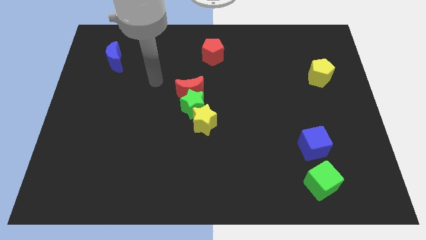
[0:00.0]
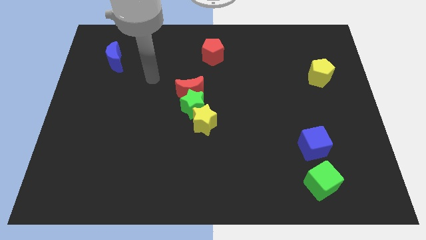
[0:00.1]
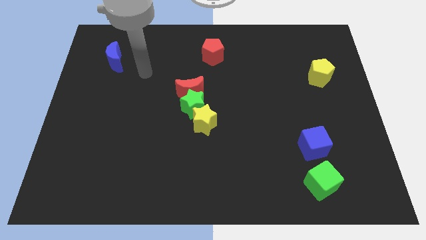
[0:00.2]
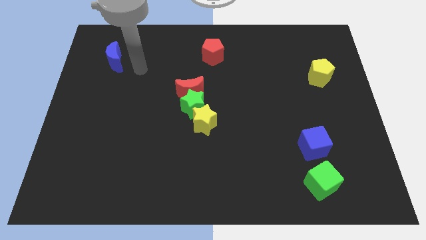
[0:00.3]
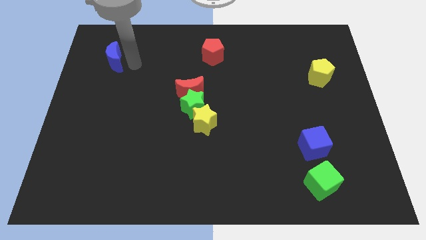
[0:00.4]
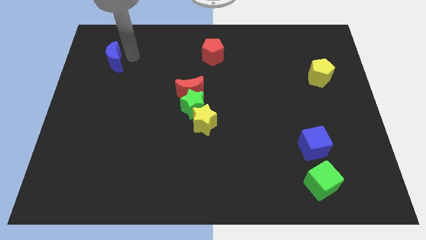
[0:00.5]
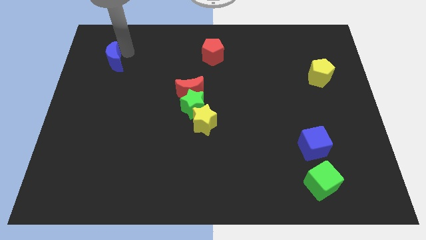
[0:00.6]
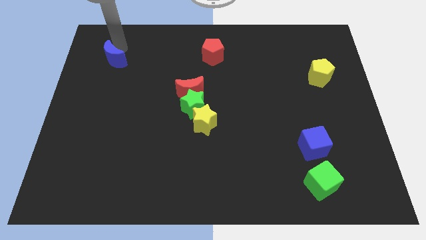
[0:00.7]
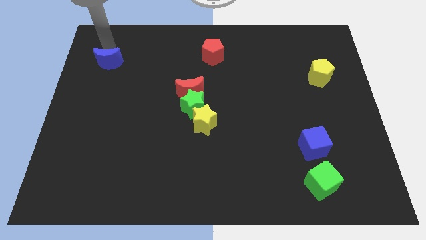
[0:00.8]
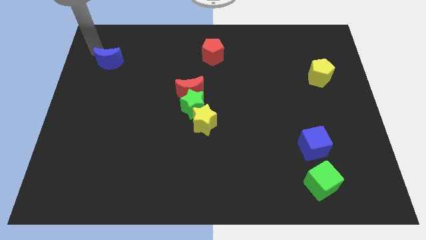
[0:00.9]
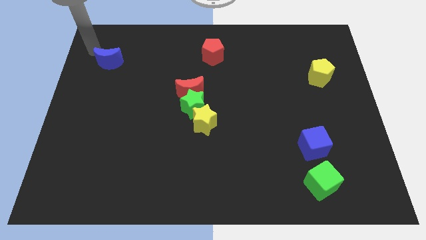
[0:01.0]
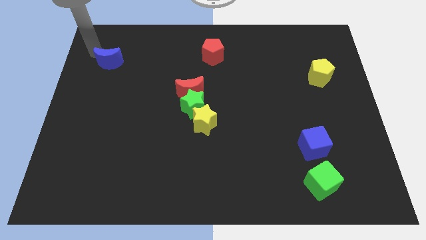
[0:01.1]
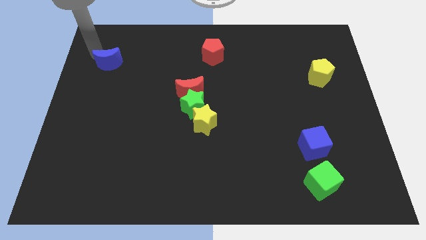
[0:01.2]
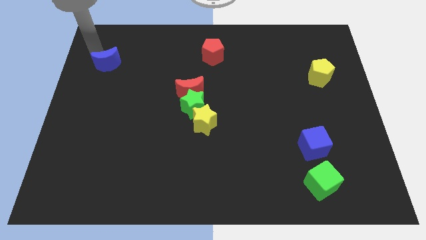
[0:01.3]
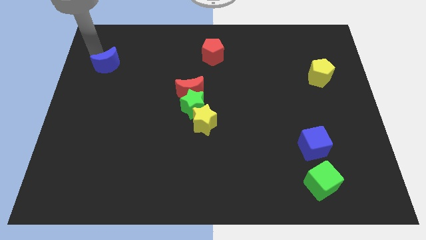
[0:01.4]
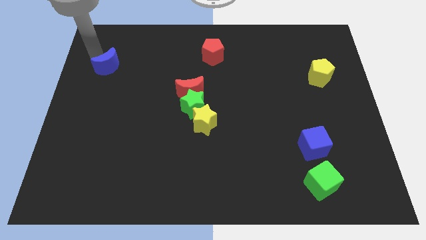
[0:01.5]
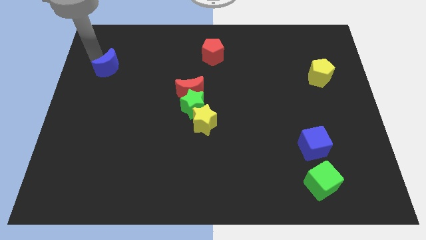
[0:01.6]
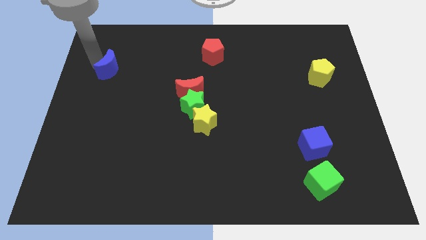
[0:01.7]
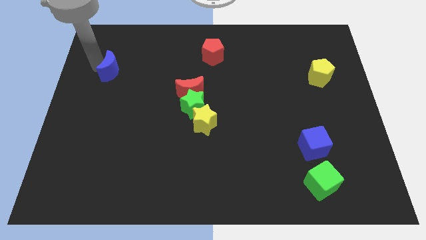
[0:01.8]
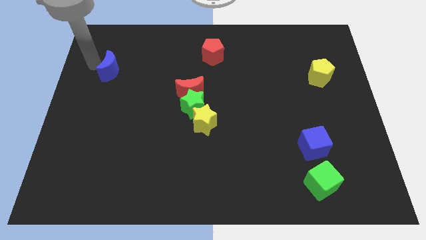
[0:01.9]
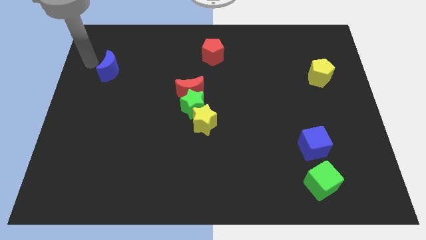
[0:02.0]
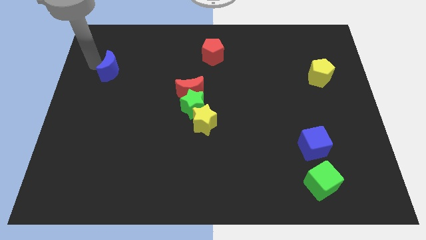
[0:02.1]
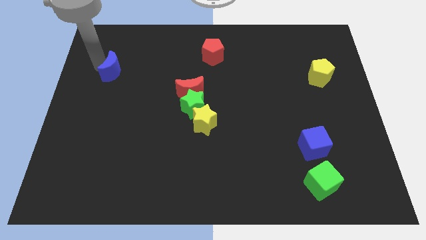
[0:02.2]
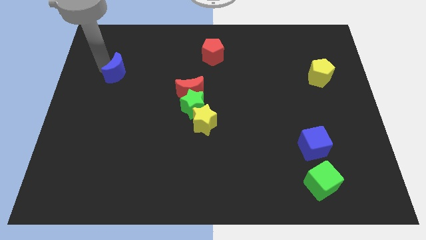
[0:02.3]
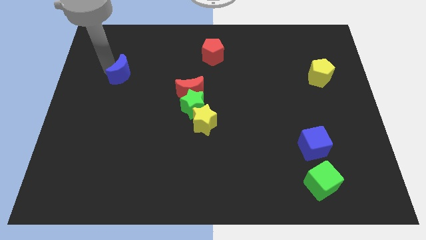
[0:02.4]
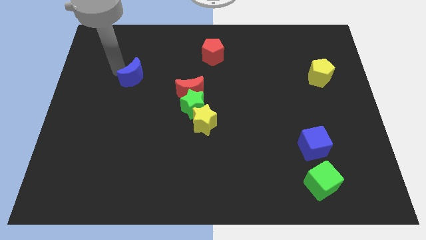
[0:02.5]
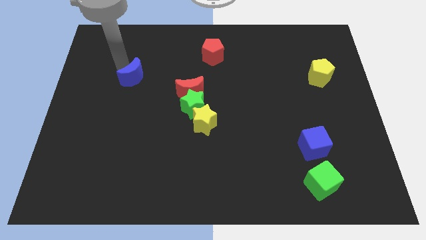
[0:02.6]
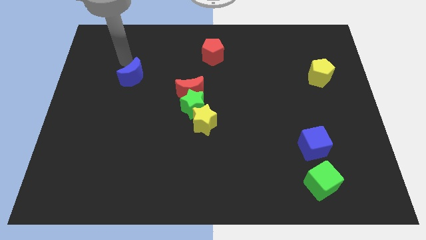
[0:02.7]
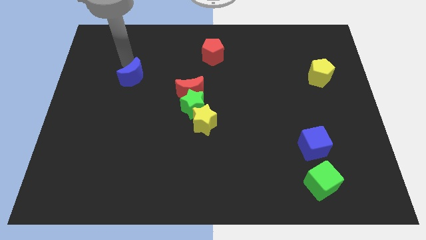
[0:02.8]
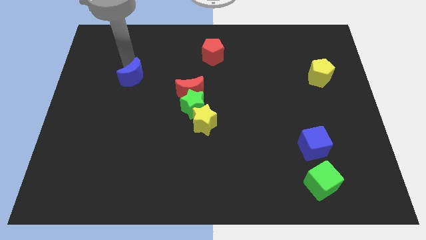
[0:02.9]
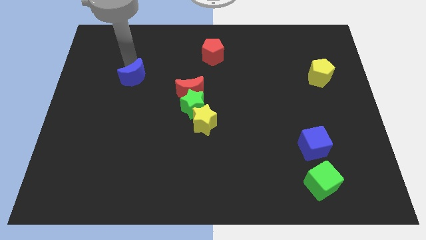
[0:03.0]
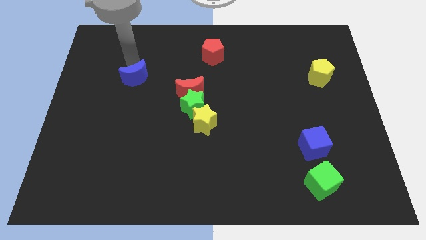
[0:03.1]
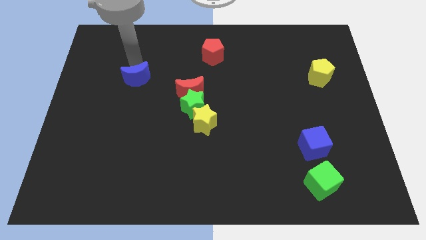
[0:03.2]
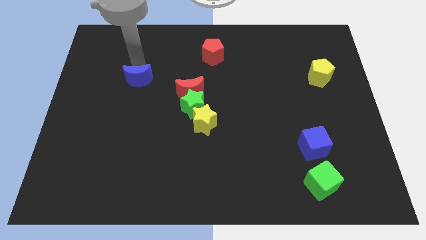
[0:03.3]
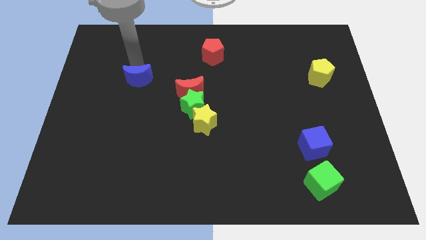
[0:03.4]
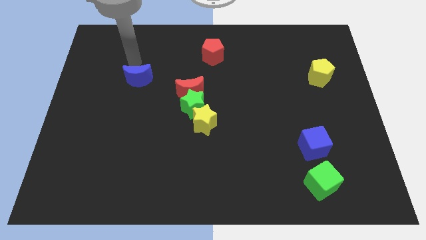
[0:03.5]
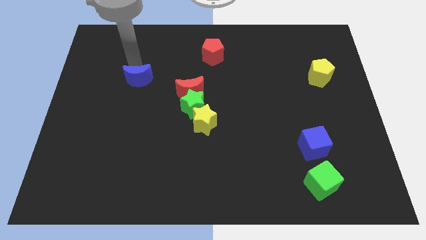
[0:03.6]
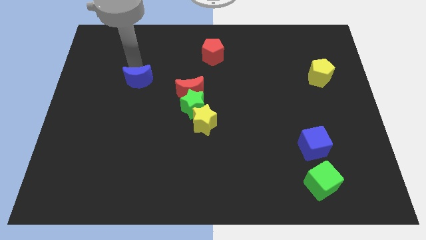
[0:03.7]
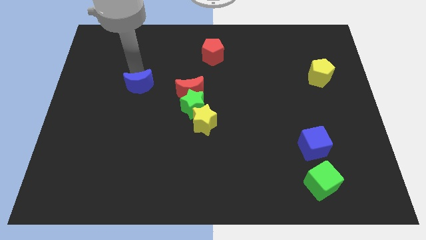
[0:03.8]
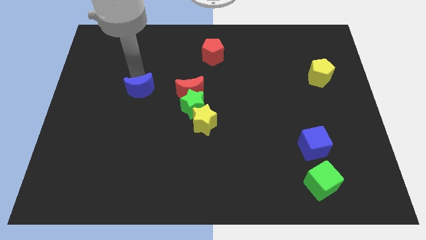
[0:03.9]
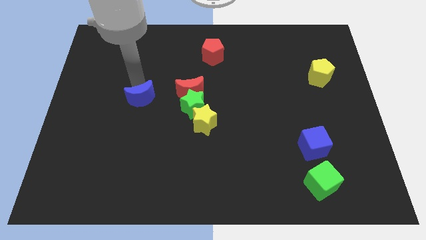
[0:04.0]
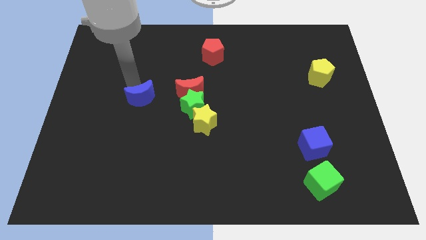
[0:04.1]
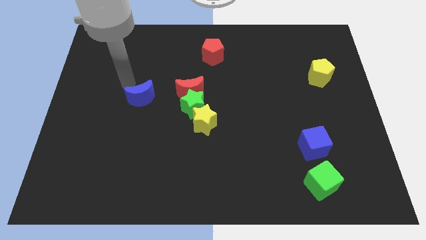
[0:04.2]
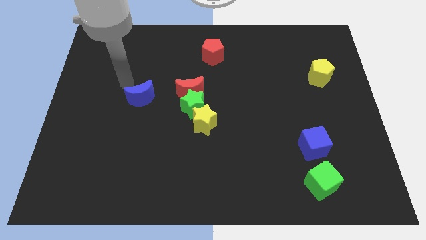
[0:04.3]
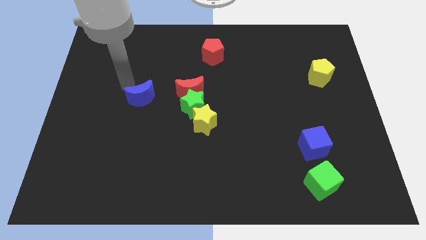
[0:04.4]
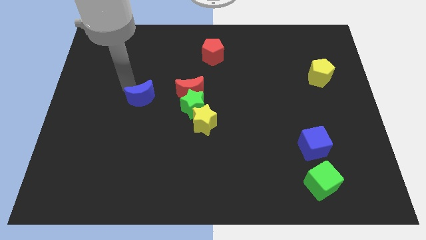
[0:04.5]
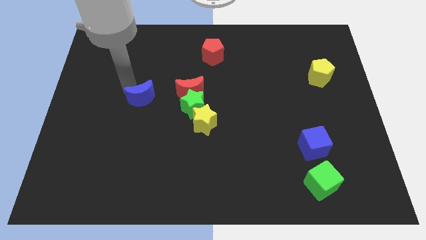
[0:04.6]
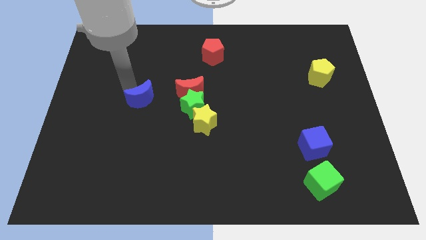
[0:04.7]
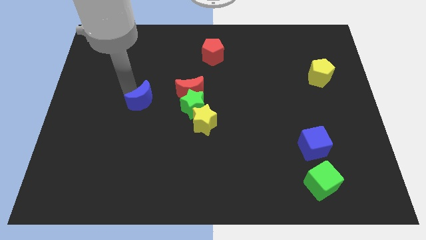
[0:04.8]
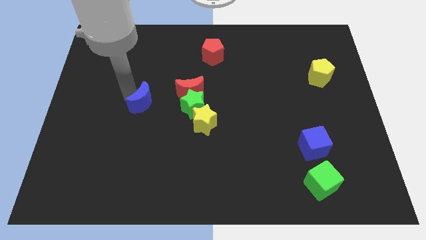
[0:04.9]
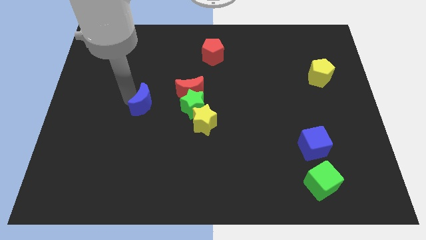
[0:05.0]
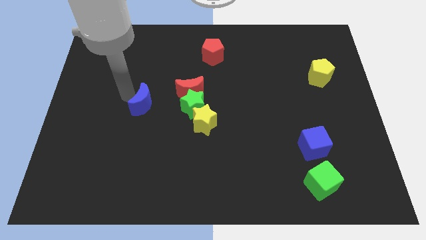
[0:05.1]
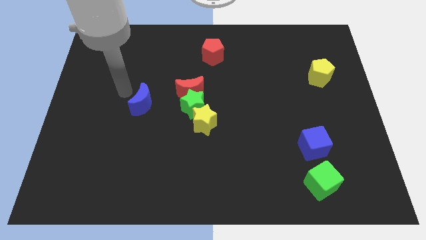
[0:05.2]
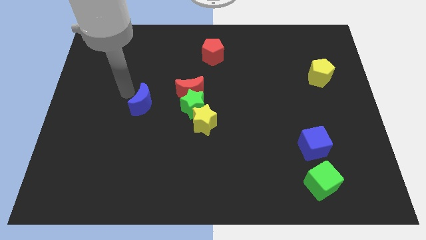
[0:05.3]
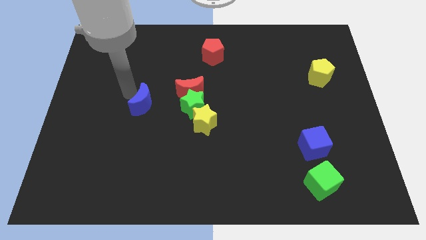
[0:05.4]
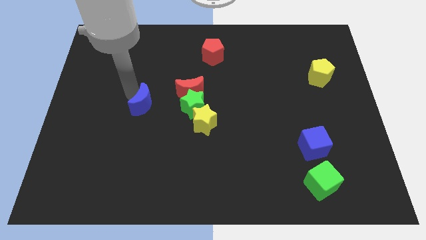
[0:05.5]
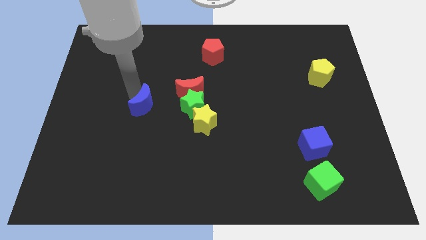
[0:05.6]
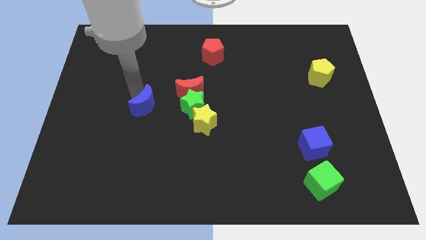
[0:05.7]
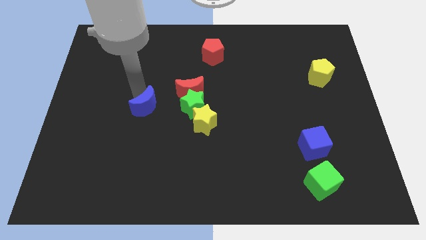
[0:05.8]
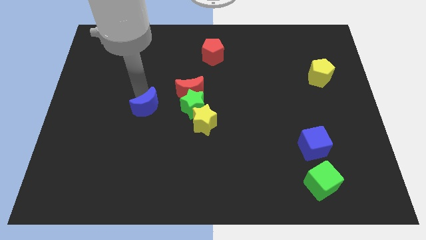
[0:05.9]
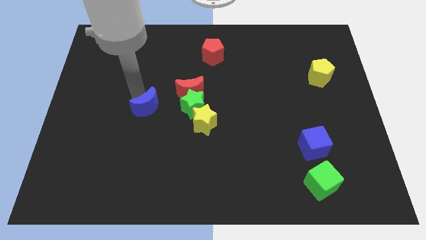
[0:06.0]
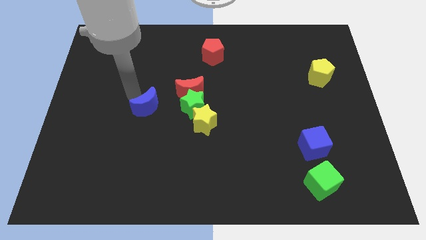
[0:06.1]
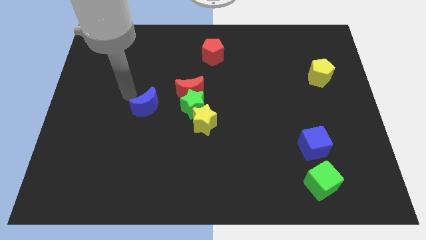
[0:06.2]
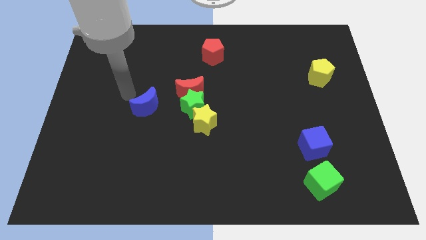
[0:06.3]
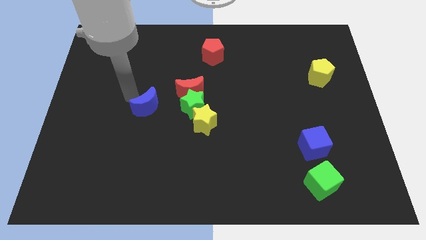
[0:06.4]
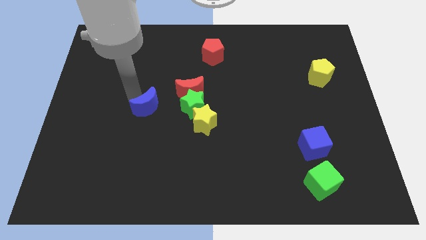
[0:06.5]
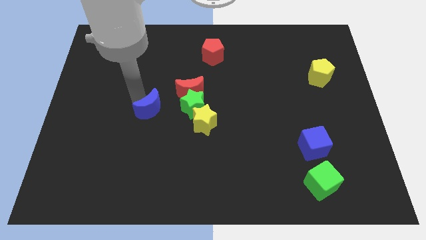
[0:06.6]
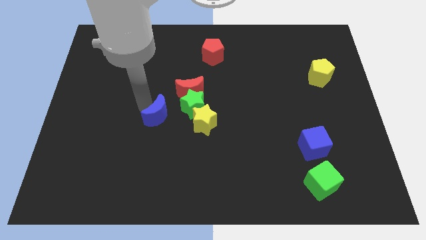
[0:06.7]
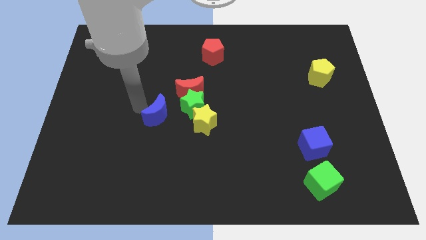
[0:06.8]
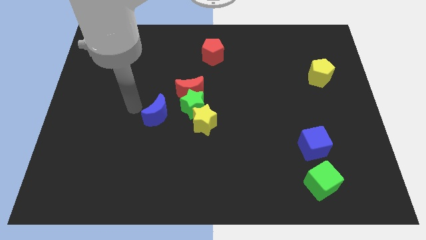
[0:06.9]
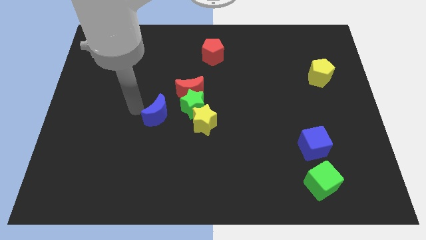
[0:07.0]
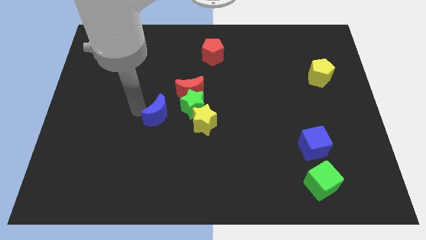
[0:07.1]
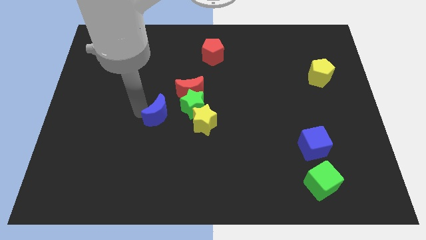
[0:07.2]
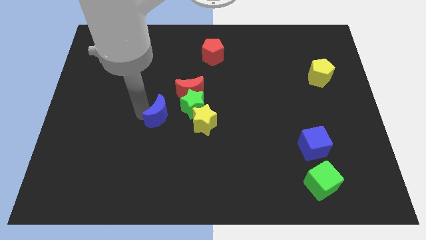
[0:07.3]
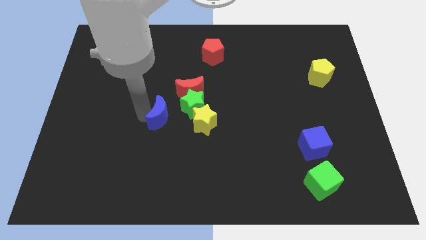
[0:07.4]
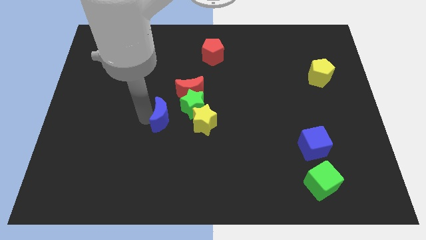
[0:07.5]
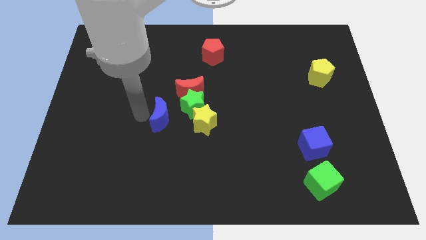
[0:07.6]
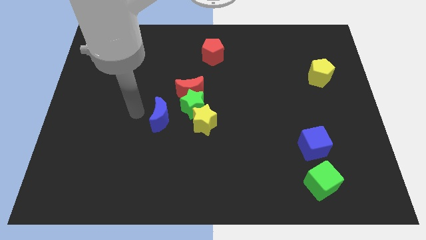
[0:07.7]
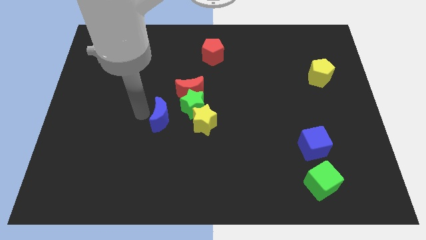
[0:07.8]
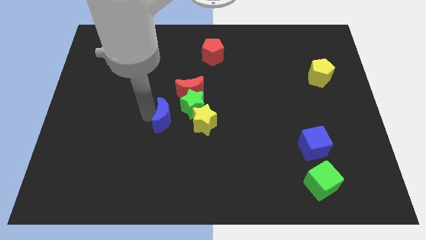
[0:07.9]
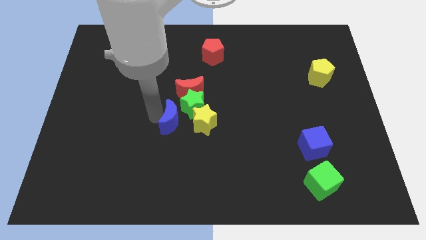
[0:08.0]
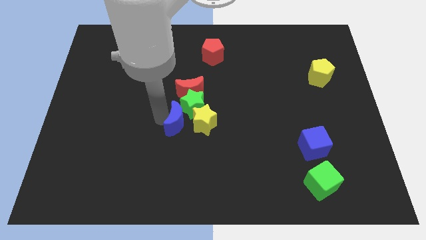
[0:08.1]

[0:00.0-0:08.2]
slide the blue moon to the yellow star
